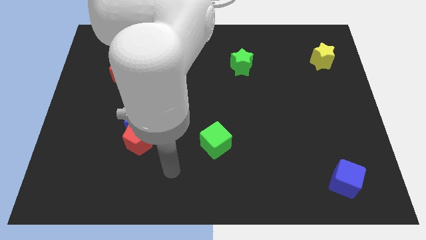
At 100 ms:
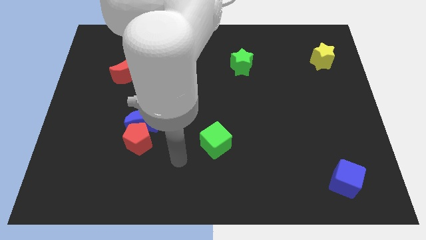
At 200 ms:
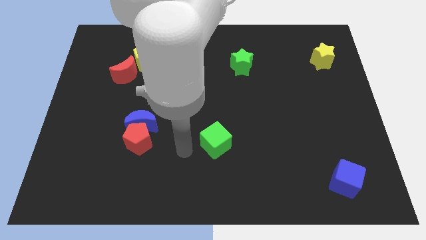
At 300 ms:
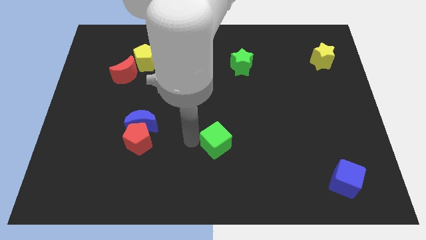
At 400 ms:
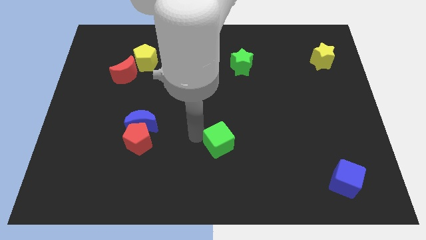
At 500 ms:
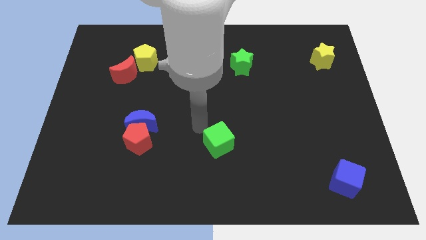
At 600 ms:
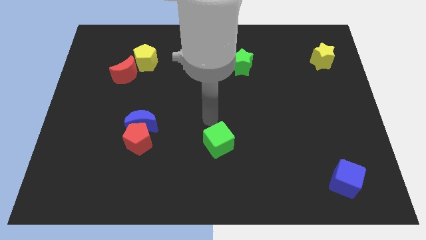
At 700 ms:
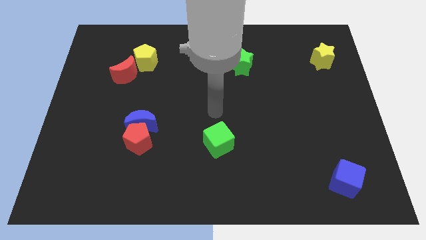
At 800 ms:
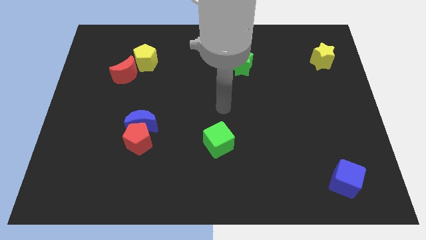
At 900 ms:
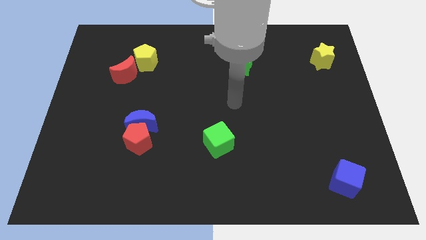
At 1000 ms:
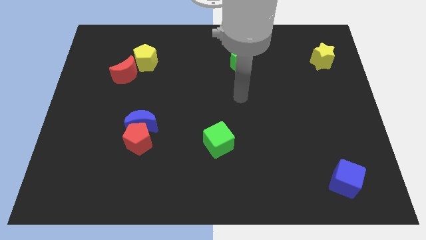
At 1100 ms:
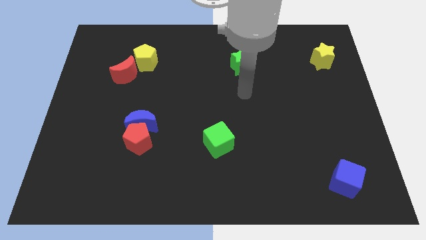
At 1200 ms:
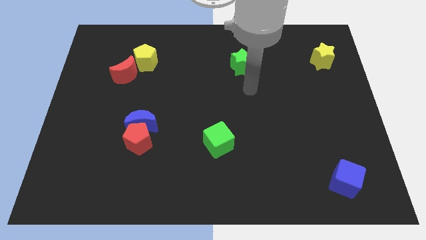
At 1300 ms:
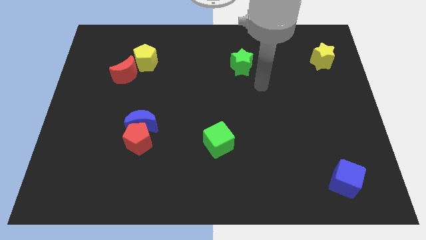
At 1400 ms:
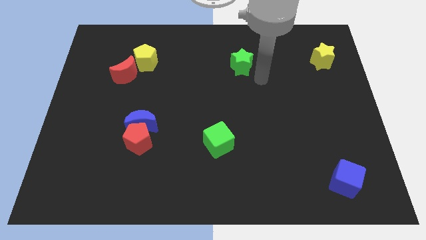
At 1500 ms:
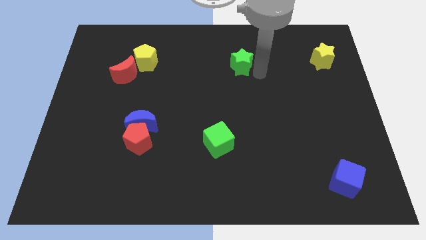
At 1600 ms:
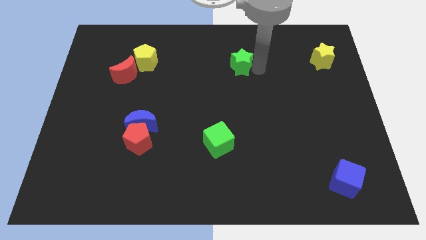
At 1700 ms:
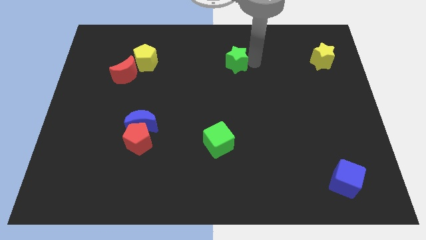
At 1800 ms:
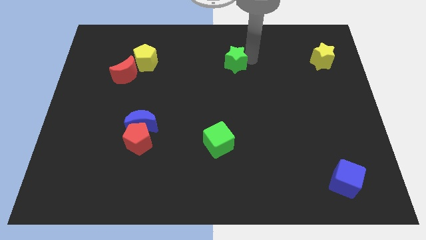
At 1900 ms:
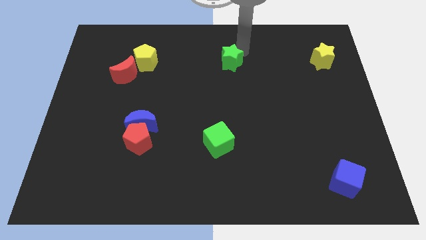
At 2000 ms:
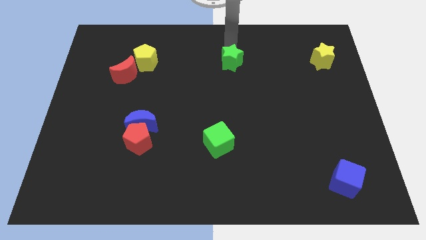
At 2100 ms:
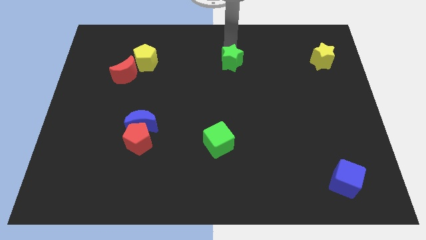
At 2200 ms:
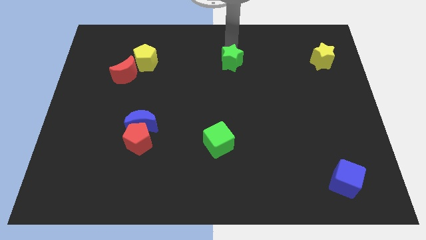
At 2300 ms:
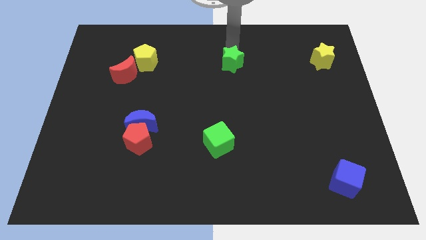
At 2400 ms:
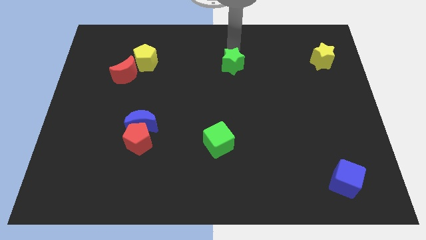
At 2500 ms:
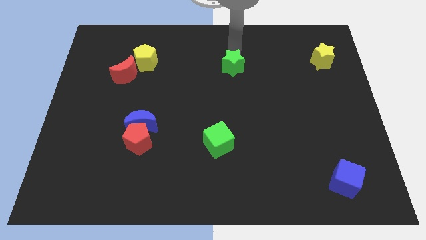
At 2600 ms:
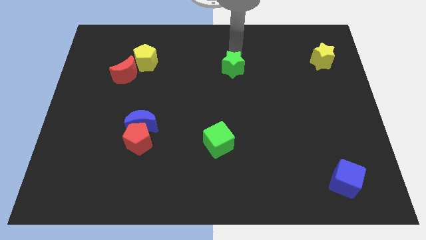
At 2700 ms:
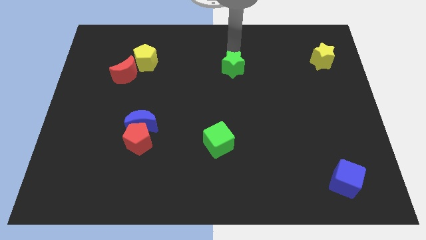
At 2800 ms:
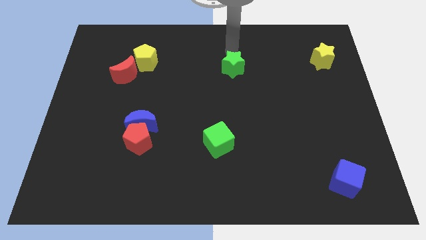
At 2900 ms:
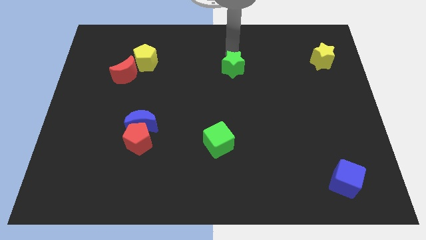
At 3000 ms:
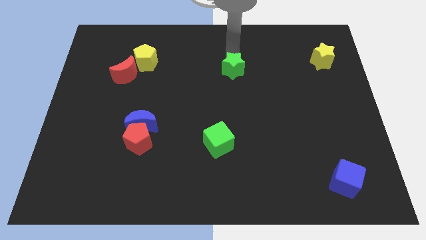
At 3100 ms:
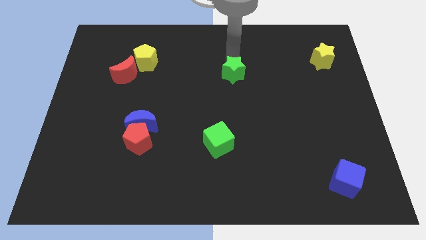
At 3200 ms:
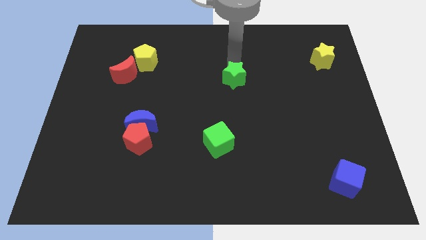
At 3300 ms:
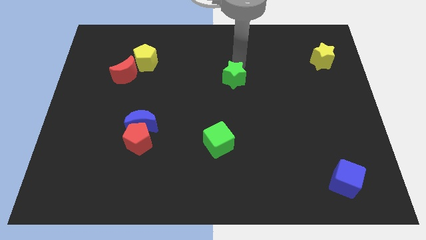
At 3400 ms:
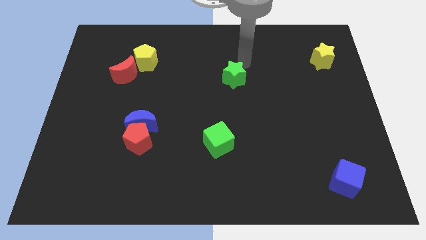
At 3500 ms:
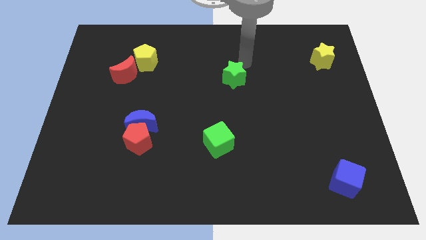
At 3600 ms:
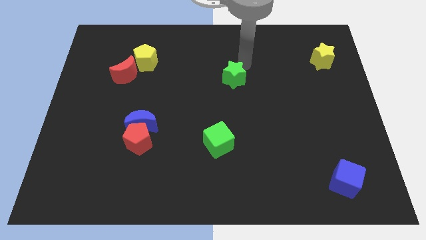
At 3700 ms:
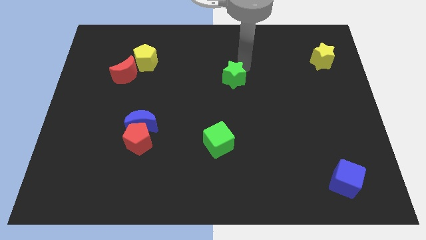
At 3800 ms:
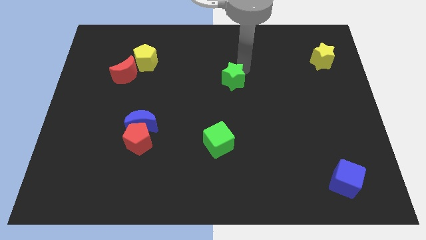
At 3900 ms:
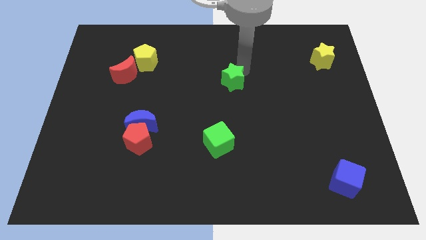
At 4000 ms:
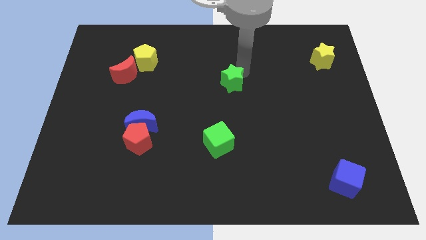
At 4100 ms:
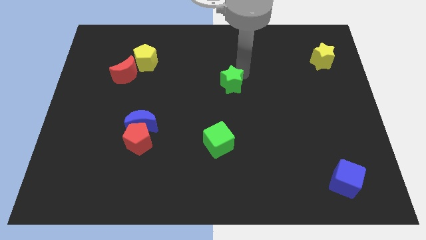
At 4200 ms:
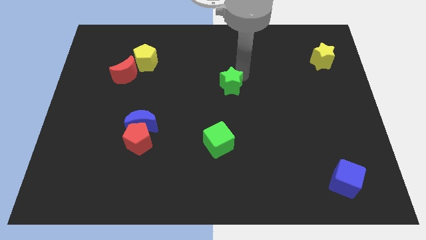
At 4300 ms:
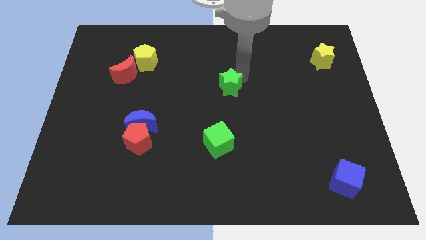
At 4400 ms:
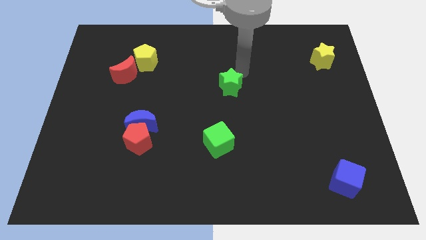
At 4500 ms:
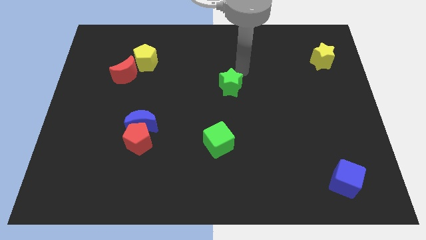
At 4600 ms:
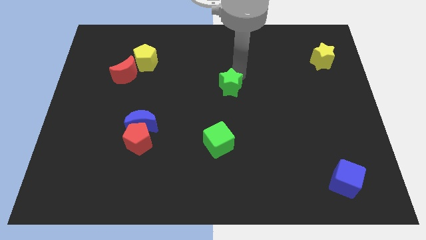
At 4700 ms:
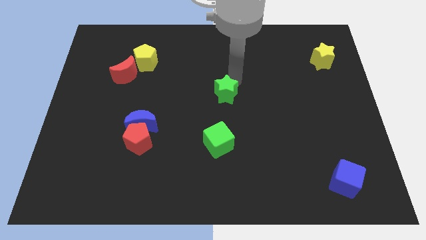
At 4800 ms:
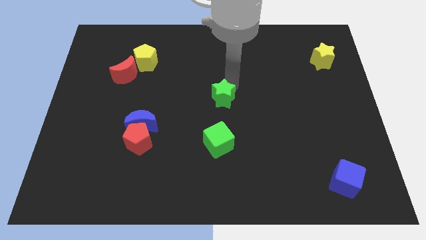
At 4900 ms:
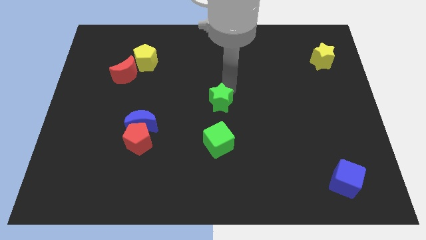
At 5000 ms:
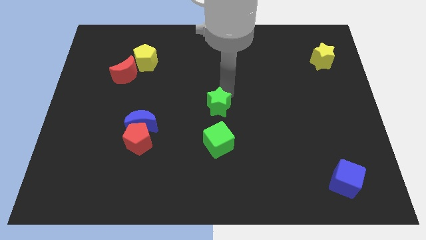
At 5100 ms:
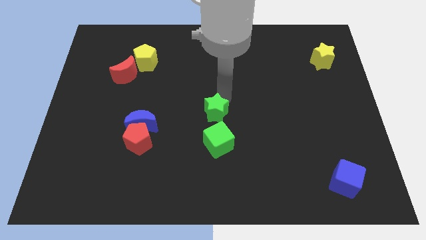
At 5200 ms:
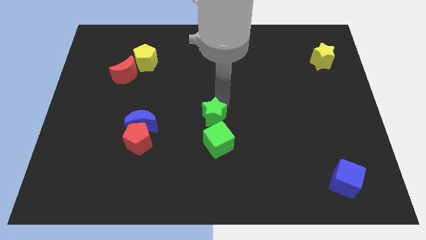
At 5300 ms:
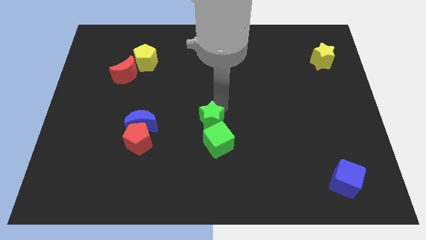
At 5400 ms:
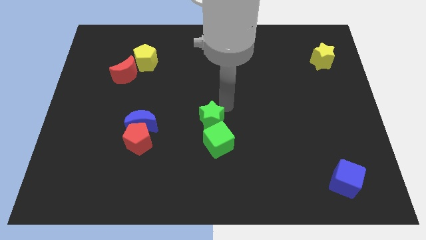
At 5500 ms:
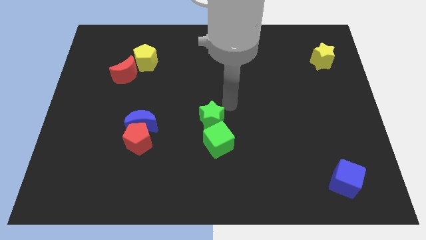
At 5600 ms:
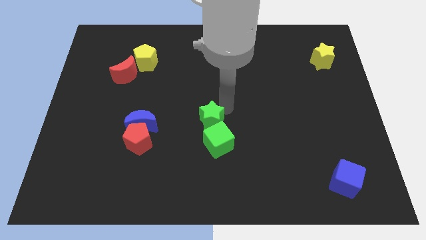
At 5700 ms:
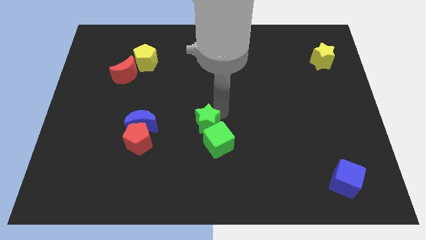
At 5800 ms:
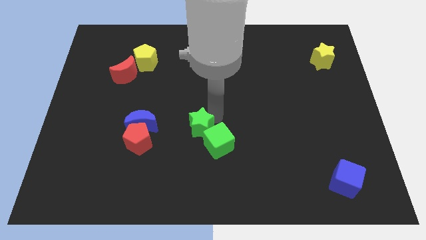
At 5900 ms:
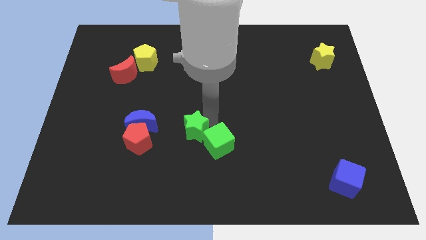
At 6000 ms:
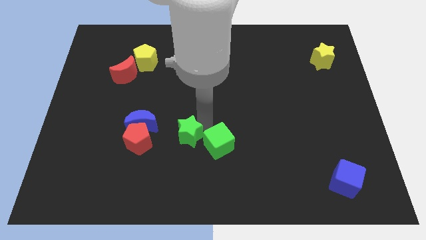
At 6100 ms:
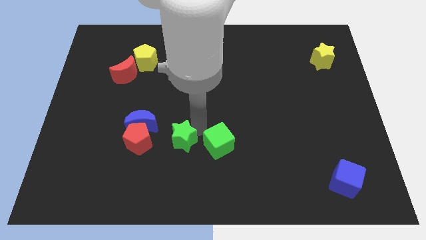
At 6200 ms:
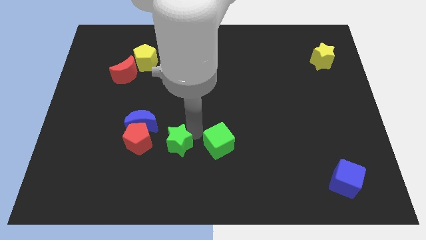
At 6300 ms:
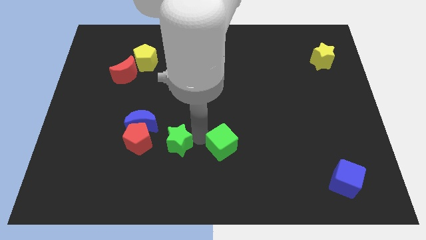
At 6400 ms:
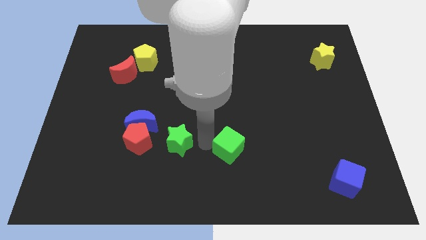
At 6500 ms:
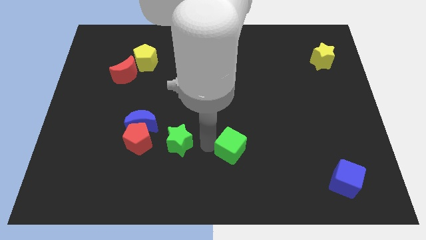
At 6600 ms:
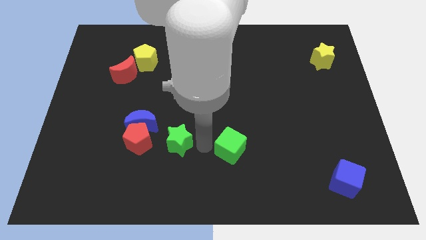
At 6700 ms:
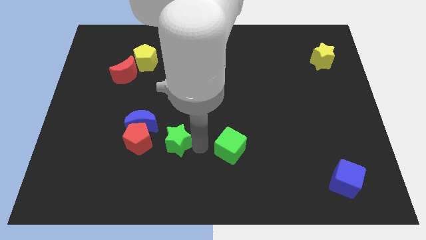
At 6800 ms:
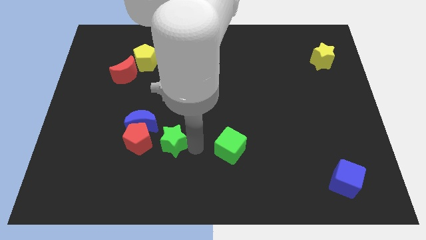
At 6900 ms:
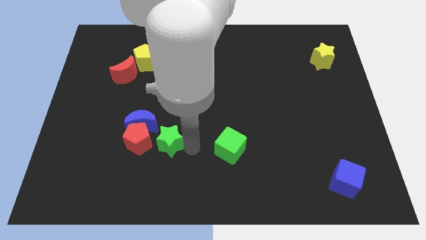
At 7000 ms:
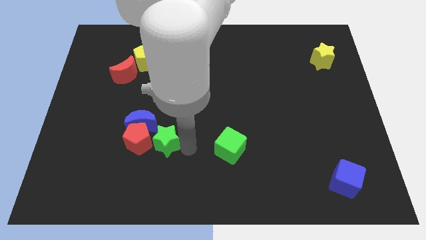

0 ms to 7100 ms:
push the green star to the red pentagon
